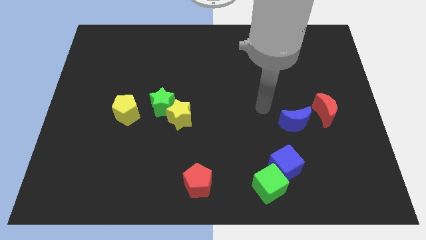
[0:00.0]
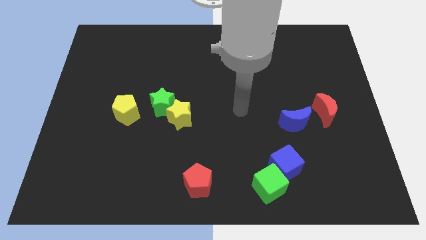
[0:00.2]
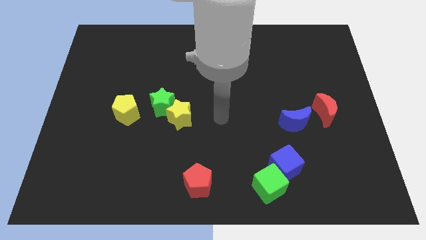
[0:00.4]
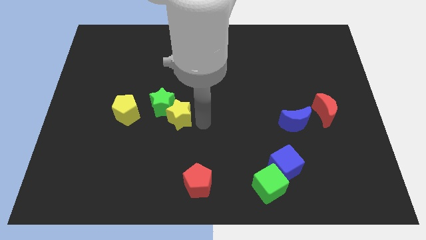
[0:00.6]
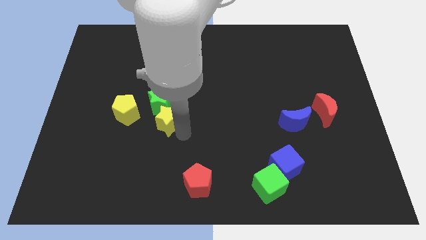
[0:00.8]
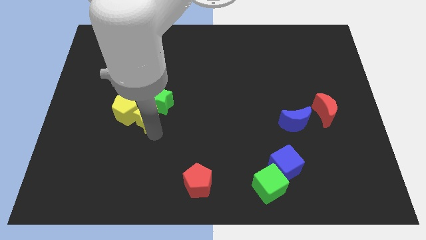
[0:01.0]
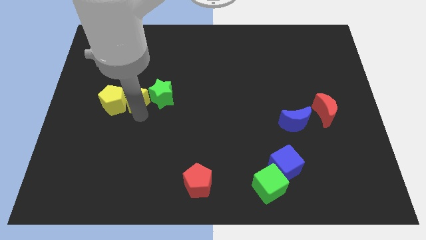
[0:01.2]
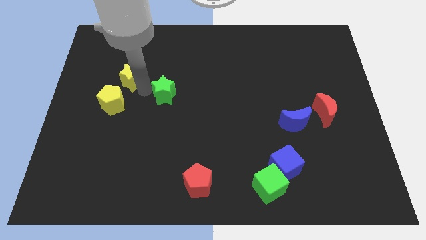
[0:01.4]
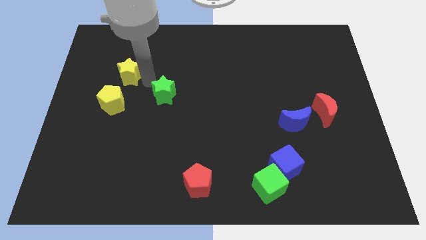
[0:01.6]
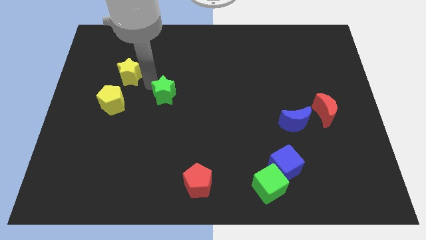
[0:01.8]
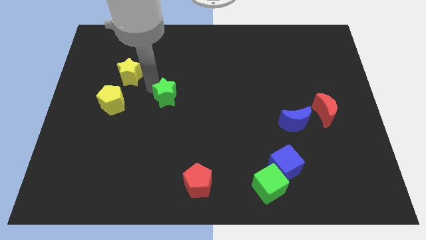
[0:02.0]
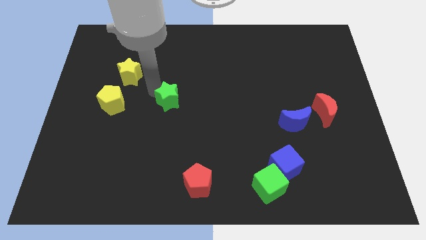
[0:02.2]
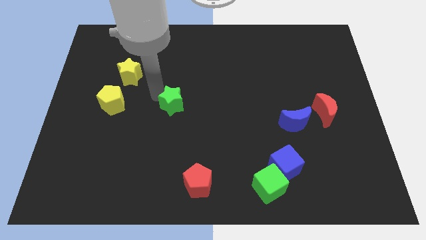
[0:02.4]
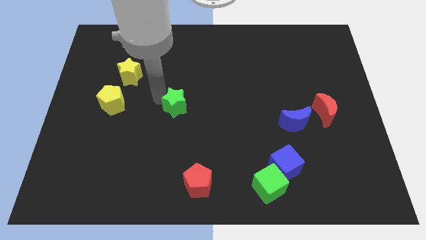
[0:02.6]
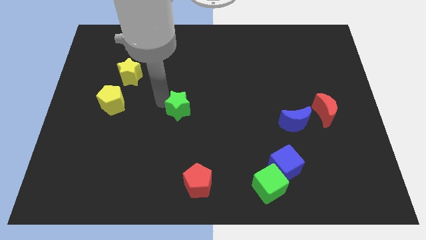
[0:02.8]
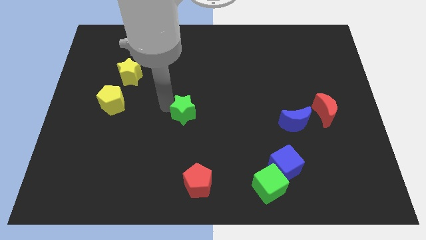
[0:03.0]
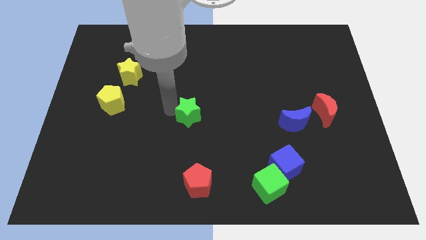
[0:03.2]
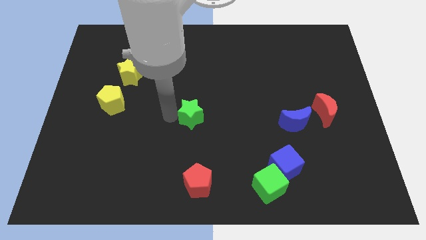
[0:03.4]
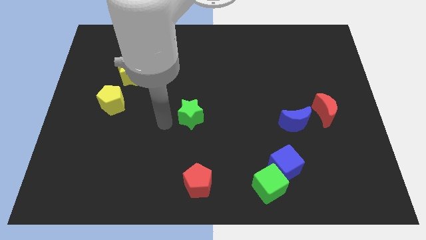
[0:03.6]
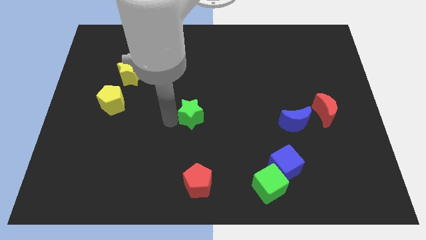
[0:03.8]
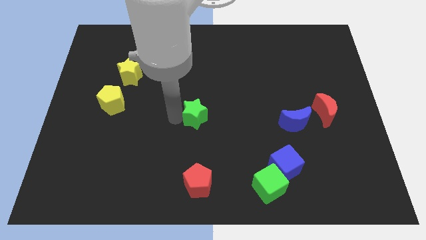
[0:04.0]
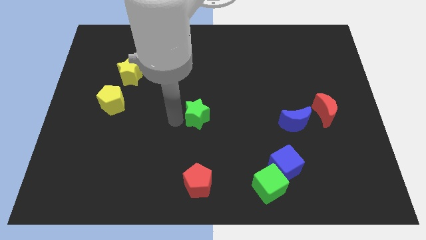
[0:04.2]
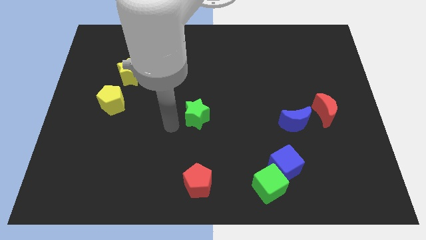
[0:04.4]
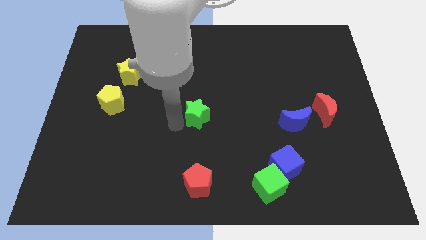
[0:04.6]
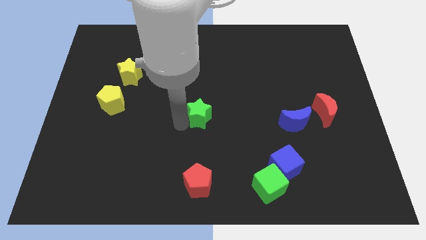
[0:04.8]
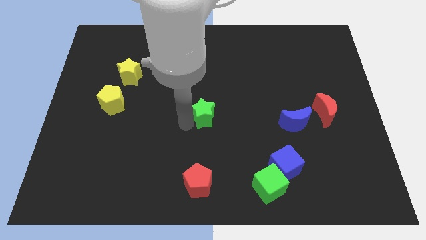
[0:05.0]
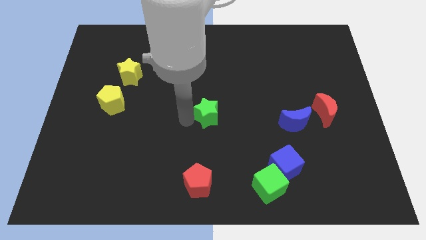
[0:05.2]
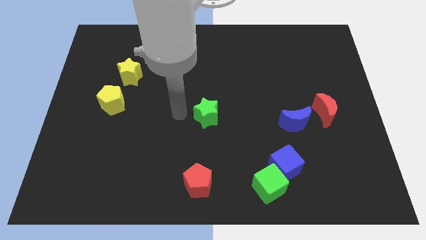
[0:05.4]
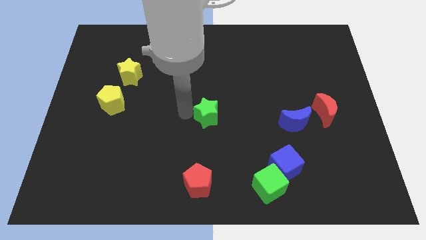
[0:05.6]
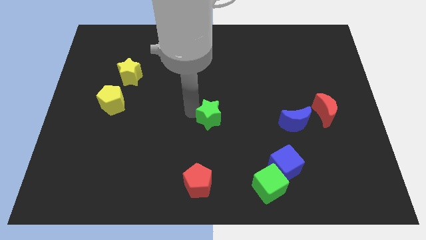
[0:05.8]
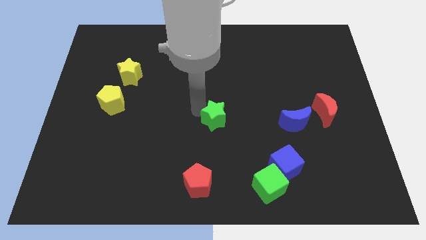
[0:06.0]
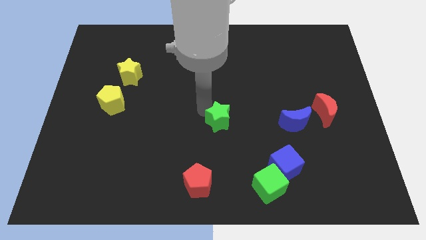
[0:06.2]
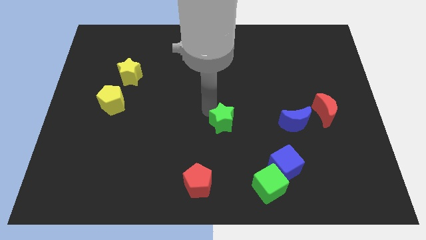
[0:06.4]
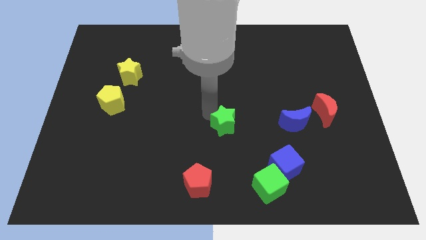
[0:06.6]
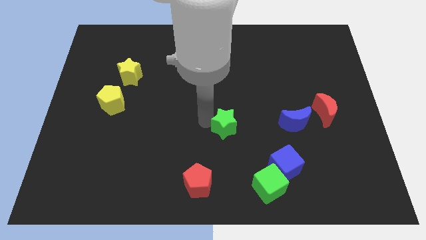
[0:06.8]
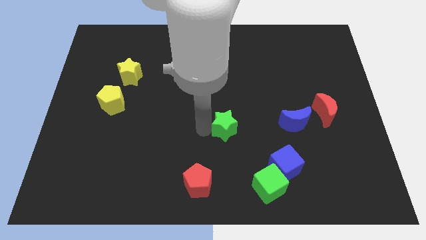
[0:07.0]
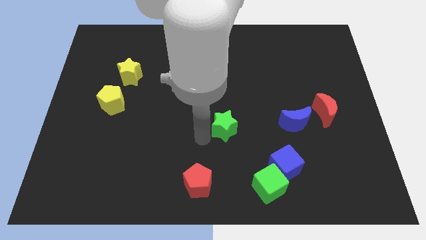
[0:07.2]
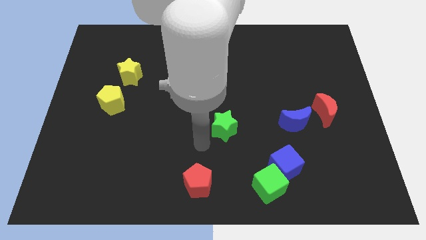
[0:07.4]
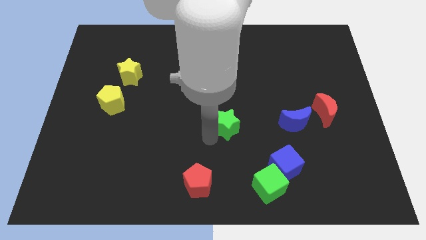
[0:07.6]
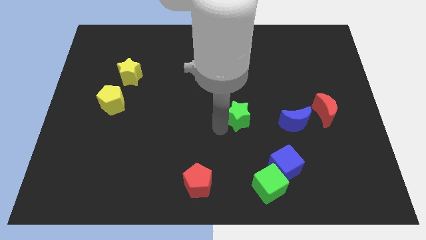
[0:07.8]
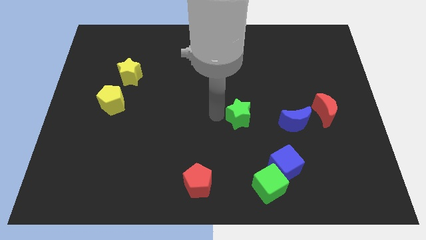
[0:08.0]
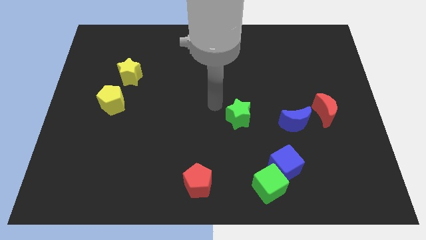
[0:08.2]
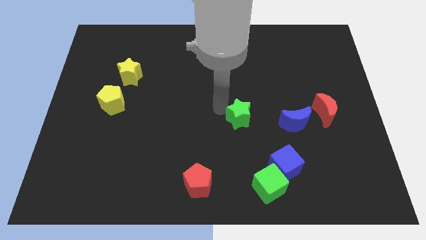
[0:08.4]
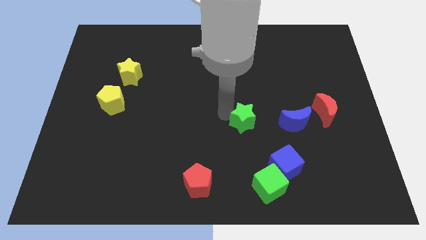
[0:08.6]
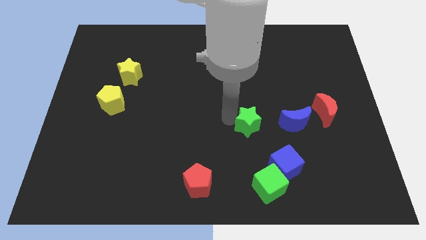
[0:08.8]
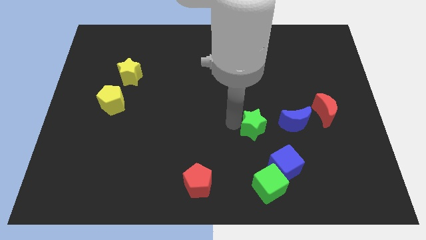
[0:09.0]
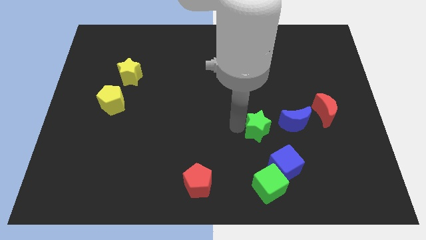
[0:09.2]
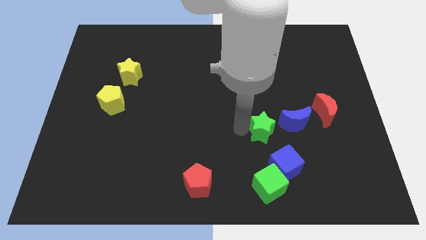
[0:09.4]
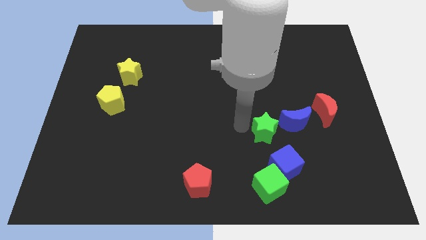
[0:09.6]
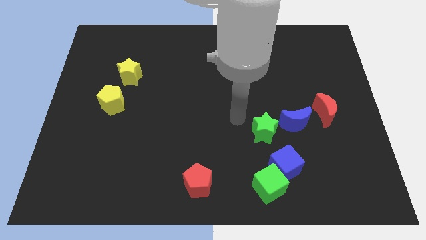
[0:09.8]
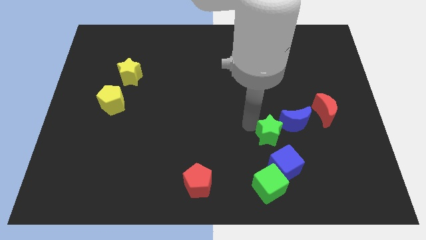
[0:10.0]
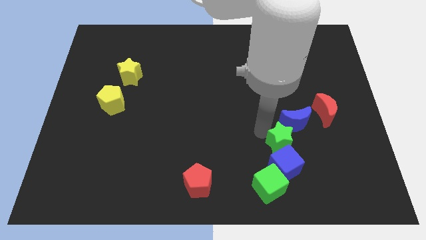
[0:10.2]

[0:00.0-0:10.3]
push the green star to the bottom of the blue moon

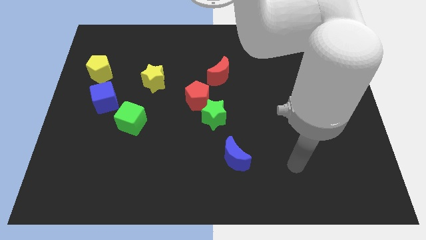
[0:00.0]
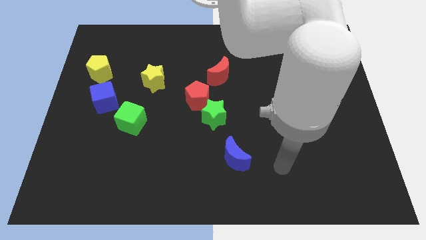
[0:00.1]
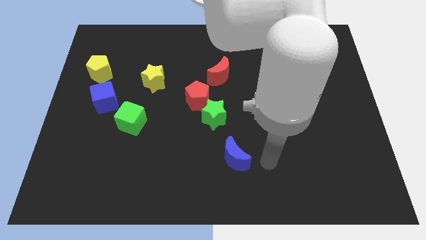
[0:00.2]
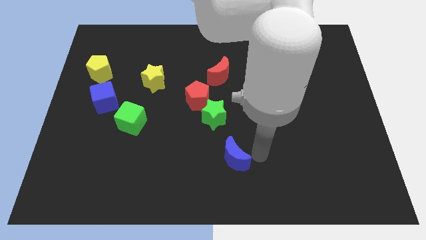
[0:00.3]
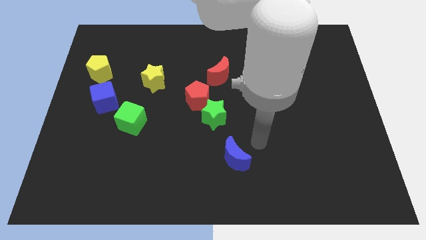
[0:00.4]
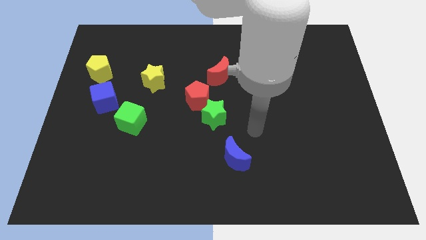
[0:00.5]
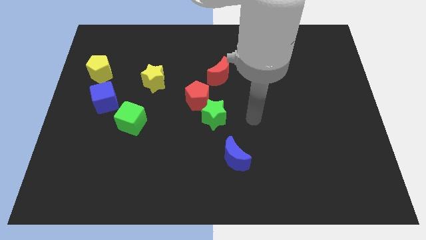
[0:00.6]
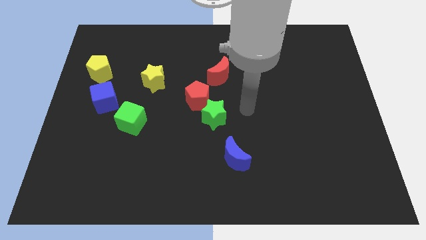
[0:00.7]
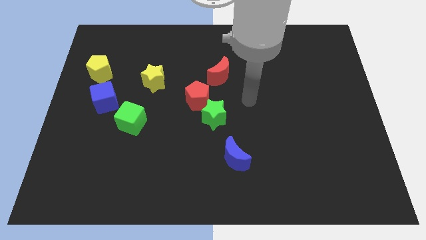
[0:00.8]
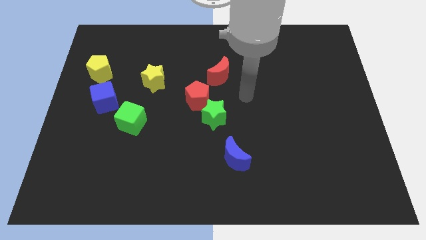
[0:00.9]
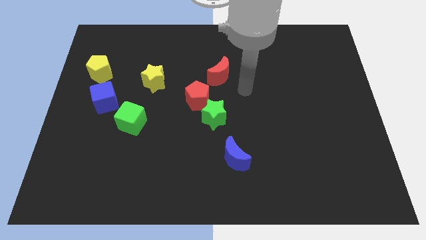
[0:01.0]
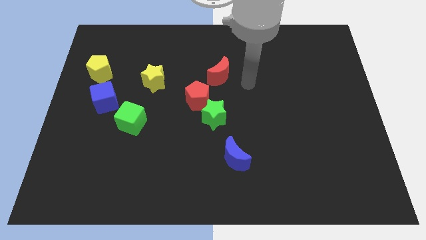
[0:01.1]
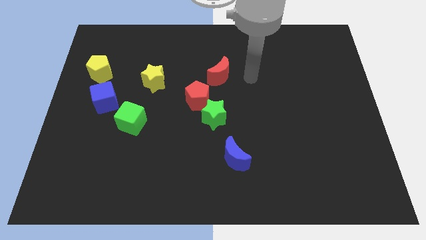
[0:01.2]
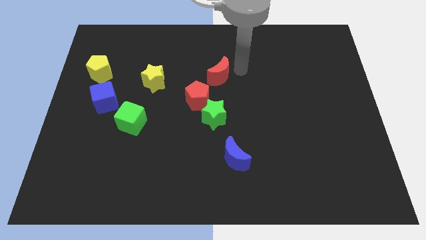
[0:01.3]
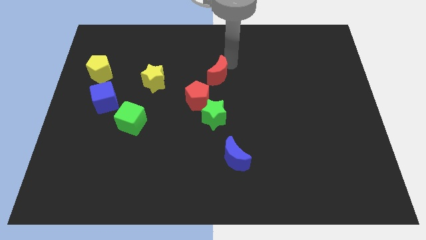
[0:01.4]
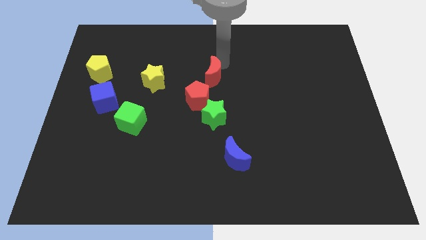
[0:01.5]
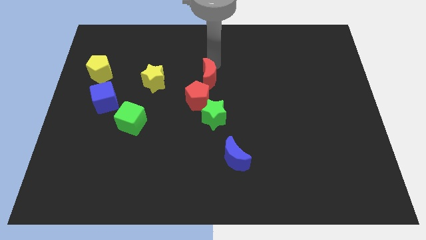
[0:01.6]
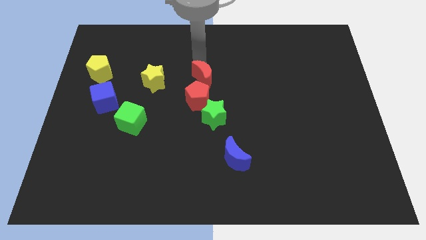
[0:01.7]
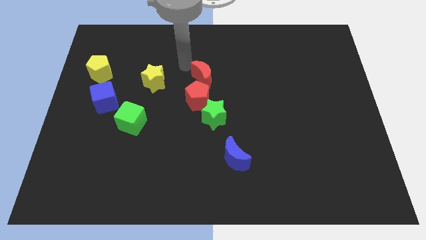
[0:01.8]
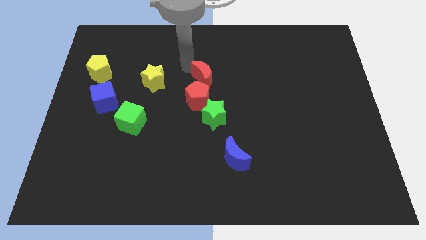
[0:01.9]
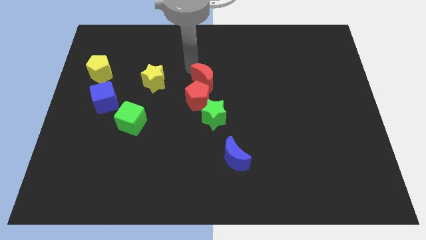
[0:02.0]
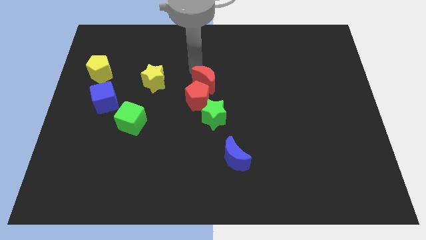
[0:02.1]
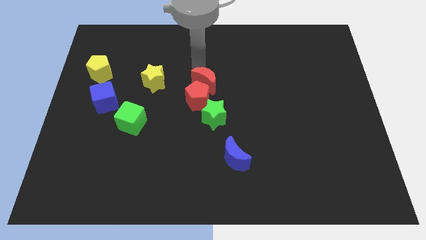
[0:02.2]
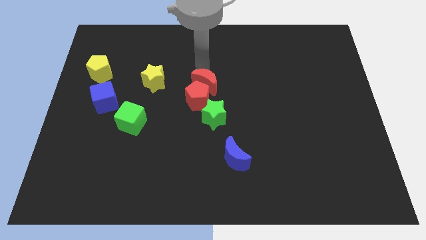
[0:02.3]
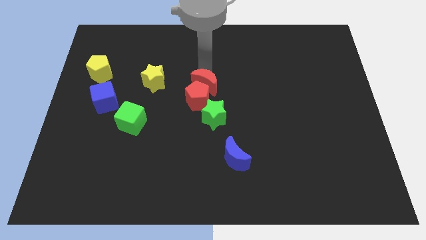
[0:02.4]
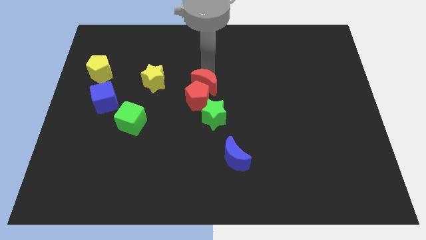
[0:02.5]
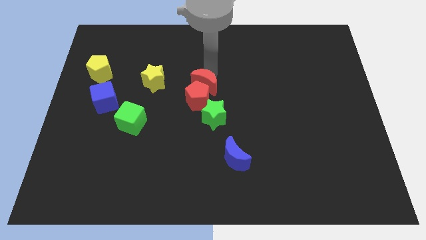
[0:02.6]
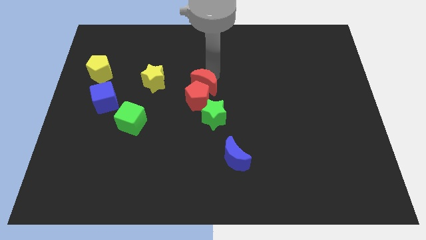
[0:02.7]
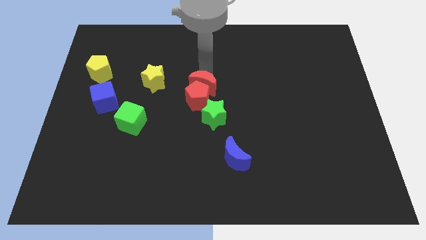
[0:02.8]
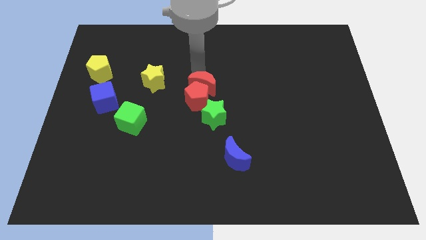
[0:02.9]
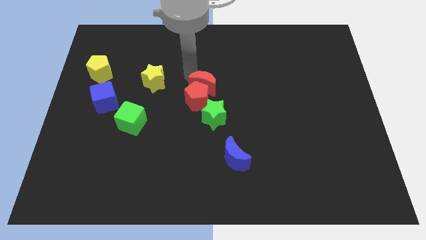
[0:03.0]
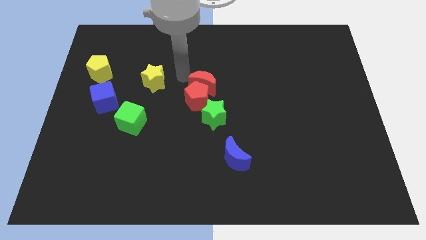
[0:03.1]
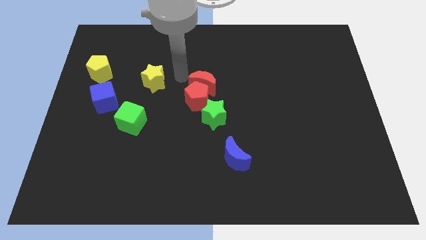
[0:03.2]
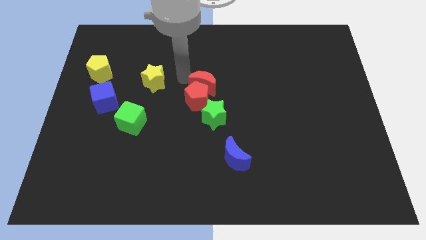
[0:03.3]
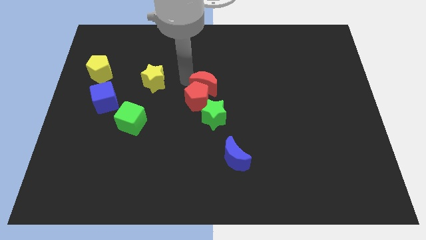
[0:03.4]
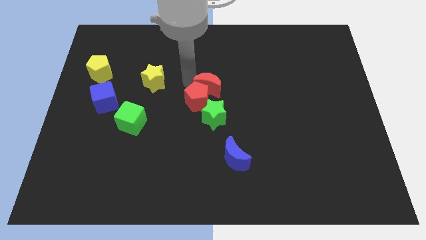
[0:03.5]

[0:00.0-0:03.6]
move the red moon just right of the red pentagon
